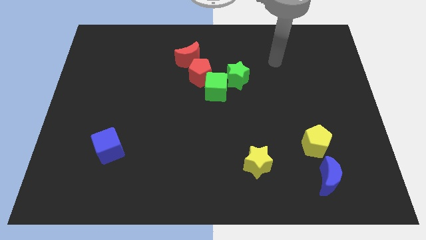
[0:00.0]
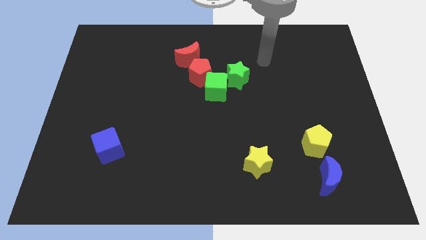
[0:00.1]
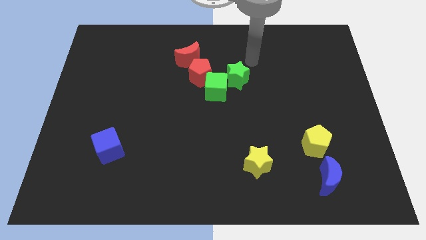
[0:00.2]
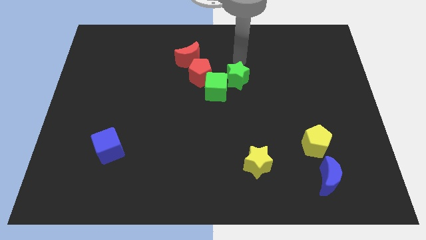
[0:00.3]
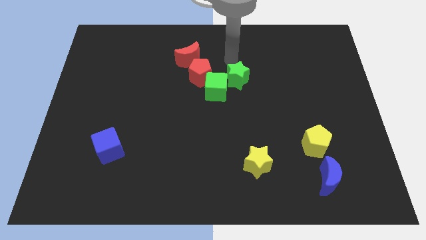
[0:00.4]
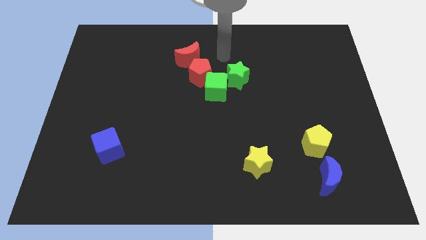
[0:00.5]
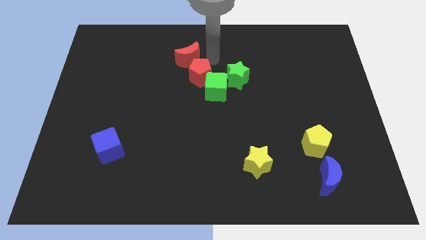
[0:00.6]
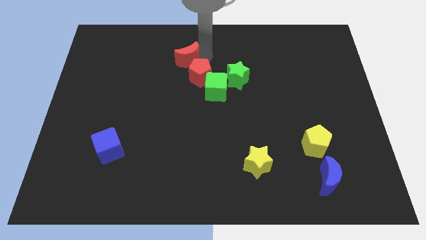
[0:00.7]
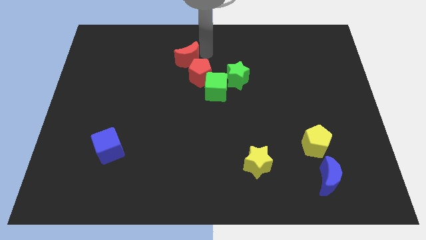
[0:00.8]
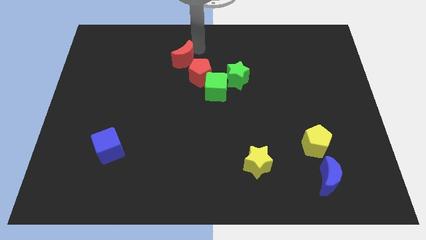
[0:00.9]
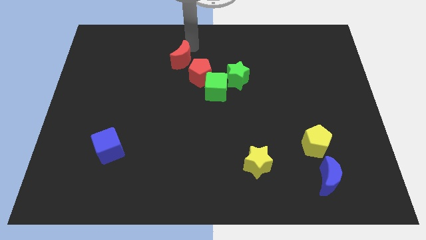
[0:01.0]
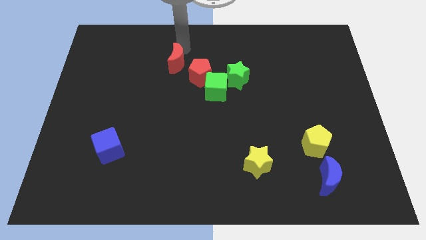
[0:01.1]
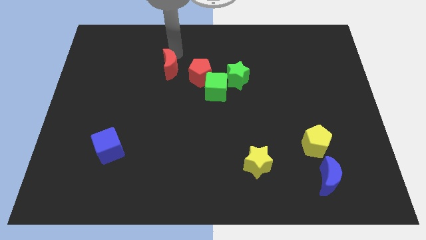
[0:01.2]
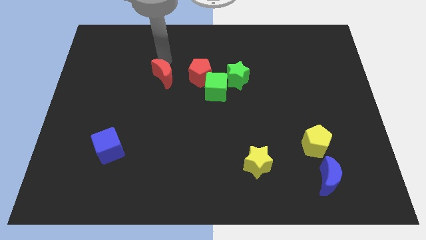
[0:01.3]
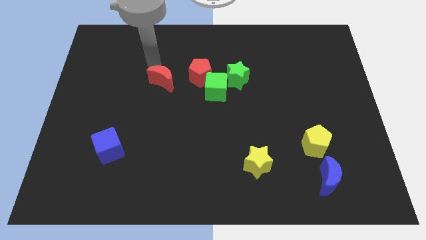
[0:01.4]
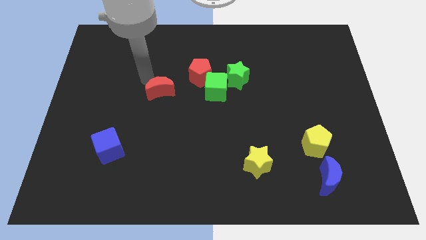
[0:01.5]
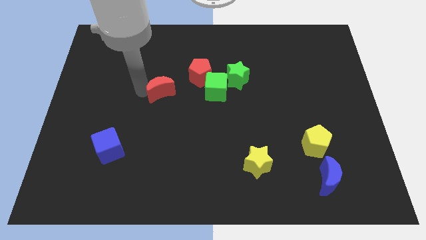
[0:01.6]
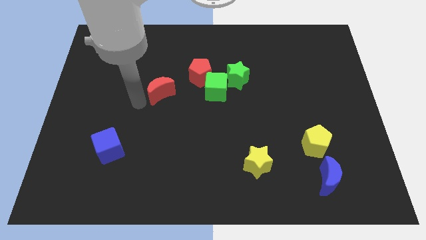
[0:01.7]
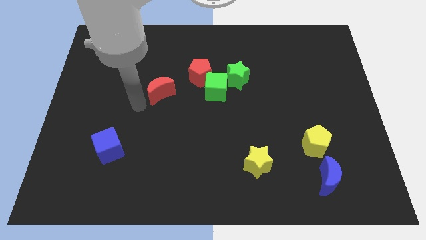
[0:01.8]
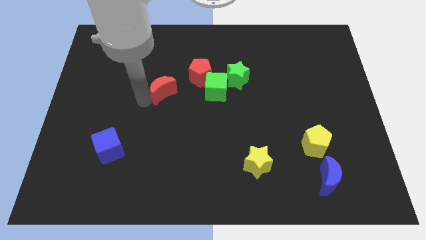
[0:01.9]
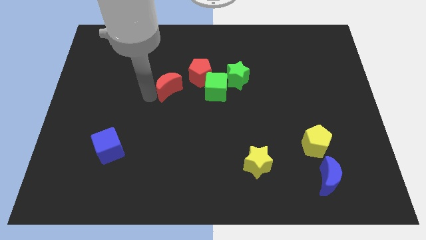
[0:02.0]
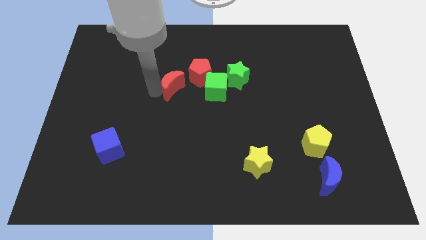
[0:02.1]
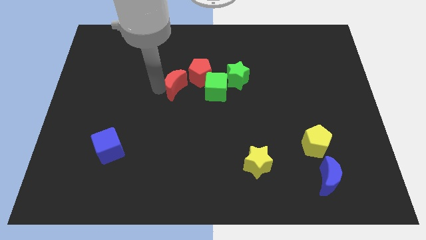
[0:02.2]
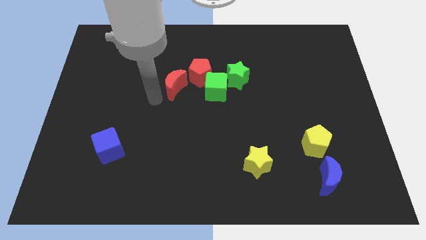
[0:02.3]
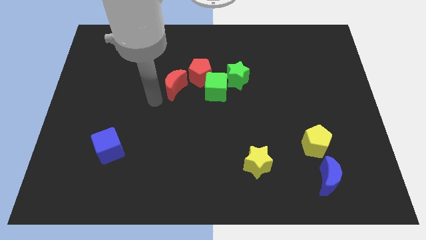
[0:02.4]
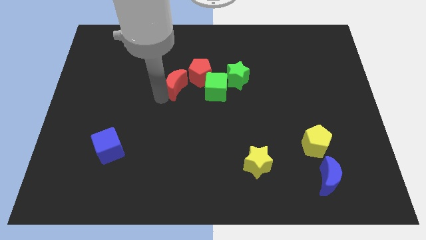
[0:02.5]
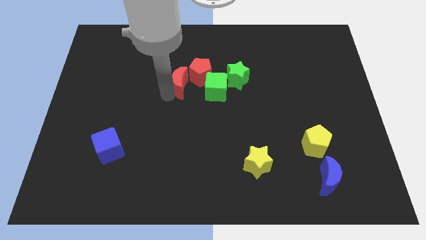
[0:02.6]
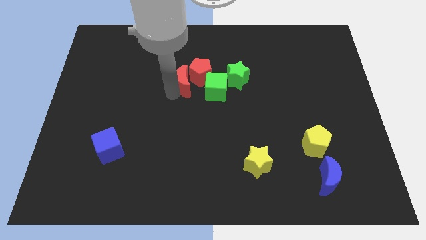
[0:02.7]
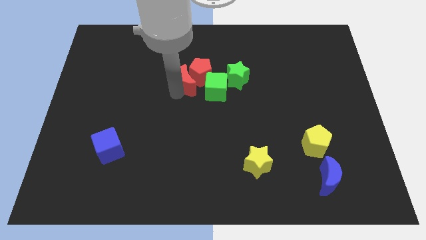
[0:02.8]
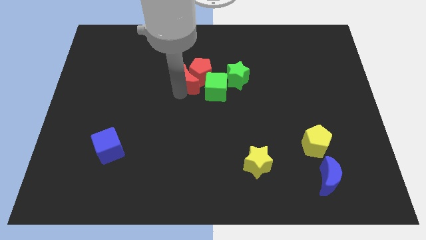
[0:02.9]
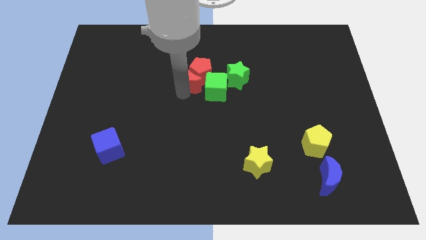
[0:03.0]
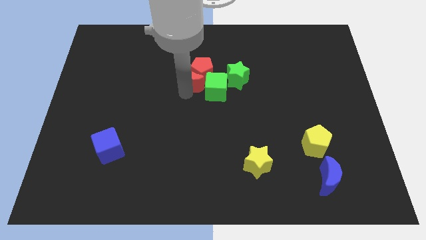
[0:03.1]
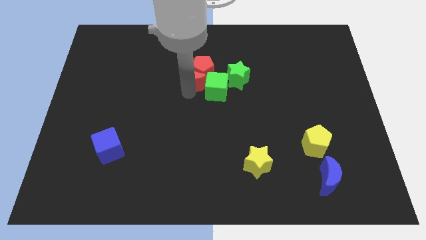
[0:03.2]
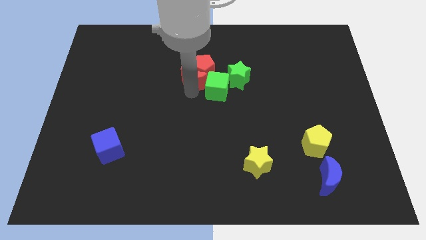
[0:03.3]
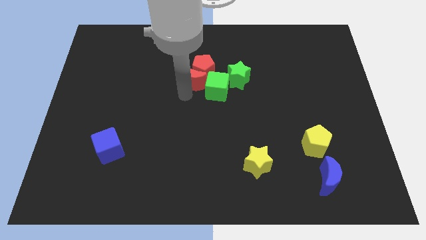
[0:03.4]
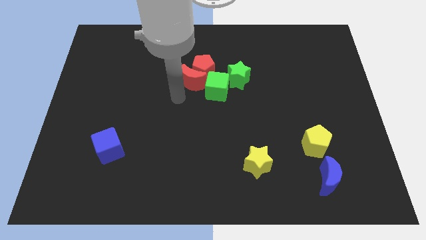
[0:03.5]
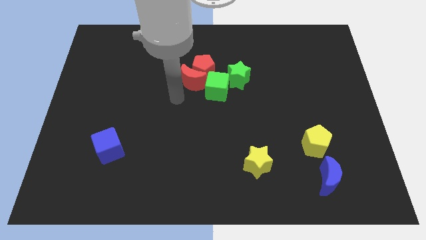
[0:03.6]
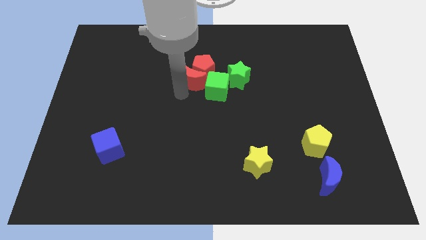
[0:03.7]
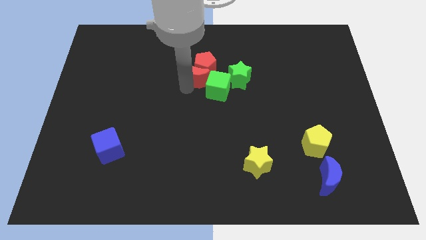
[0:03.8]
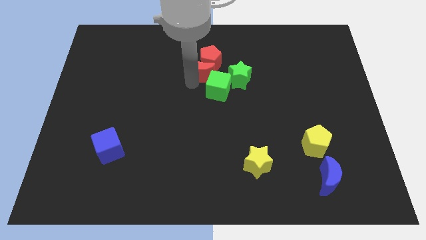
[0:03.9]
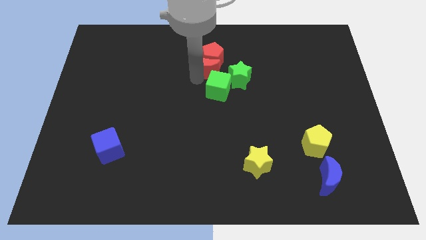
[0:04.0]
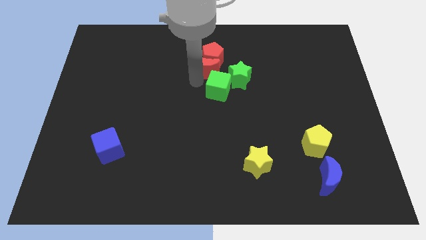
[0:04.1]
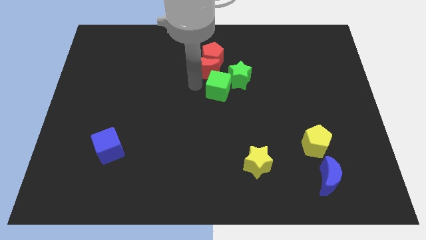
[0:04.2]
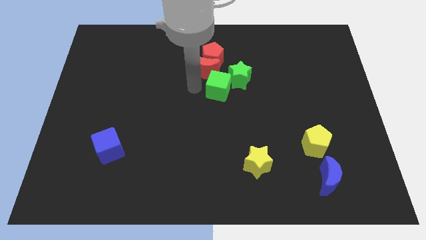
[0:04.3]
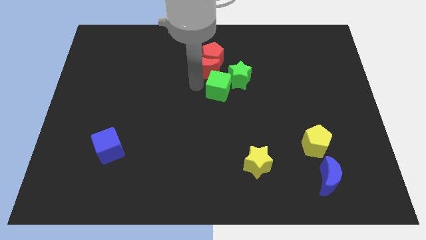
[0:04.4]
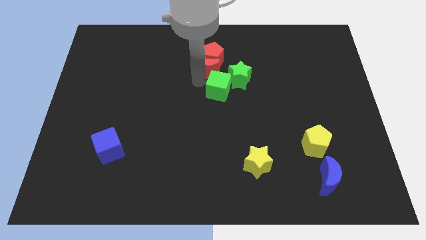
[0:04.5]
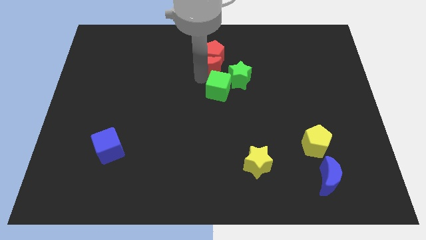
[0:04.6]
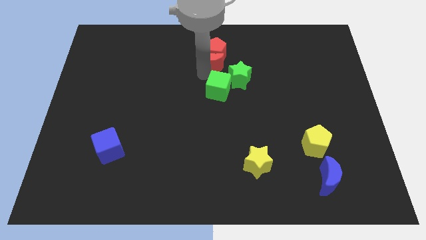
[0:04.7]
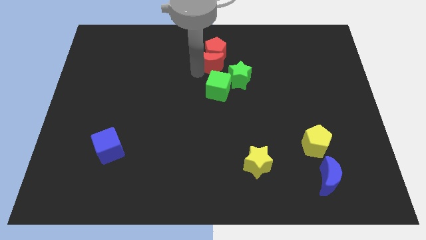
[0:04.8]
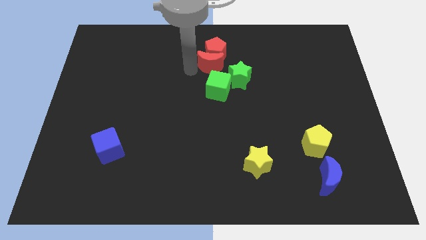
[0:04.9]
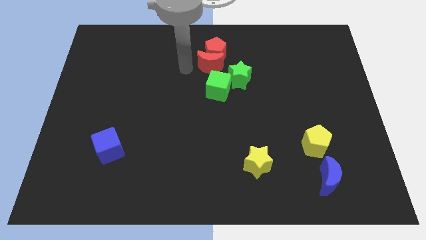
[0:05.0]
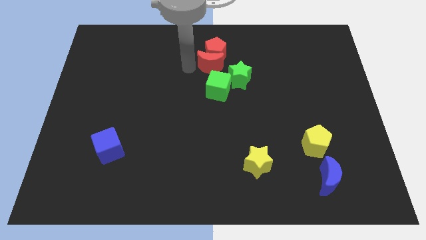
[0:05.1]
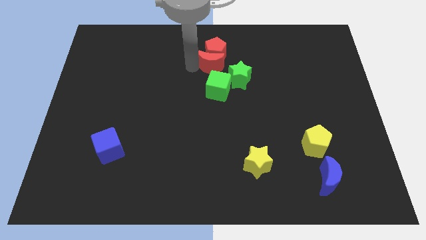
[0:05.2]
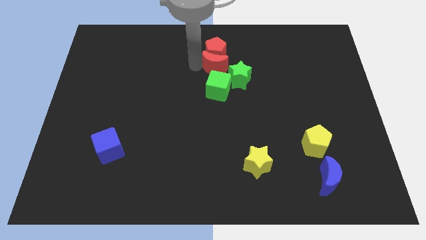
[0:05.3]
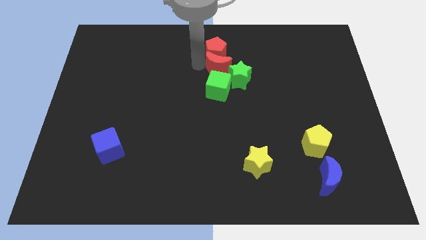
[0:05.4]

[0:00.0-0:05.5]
slightly move the red moon to the right

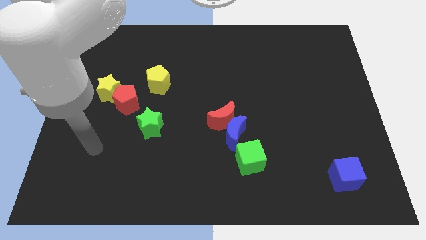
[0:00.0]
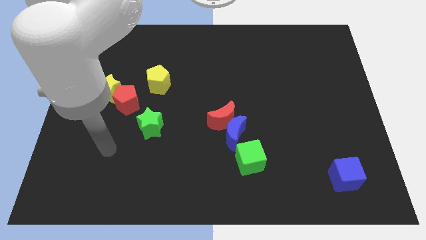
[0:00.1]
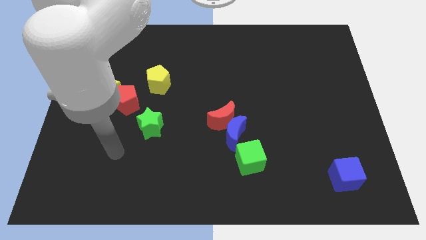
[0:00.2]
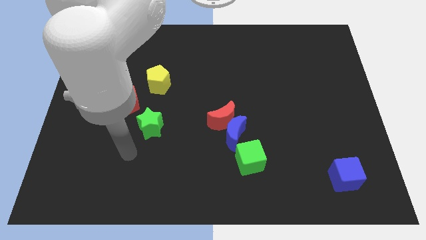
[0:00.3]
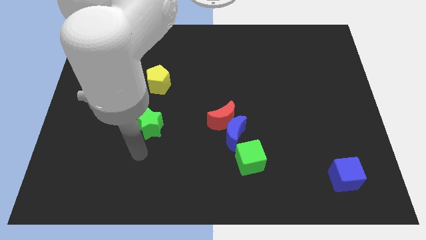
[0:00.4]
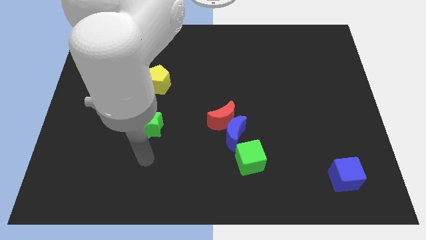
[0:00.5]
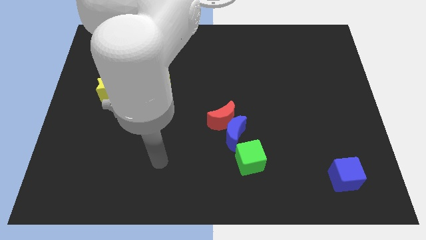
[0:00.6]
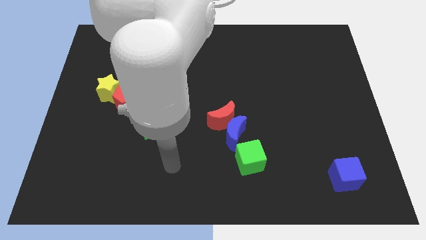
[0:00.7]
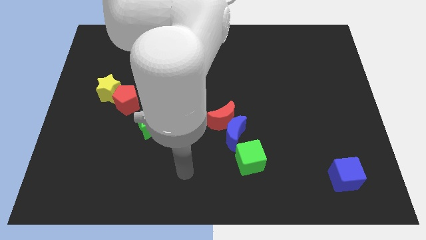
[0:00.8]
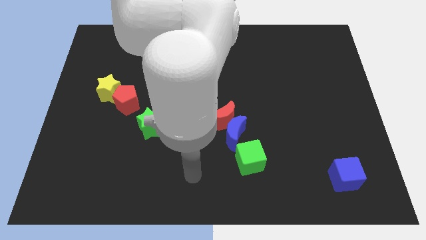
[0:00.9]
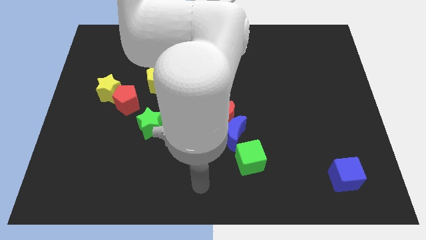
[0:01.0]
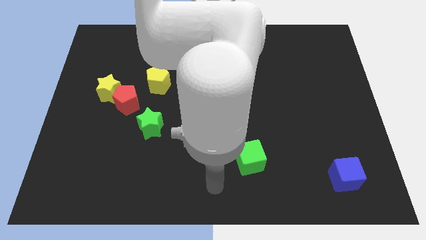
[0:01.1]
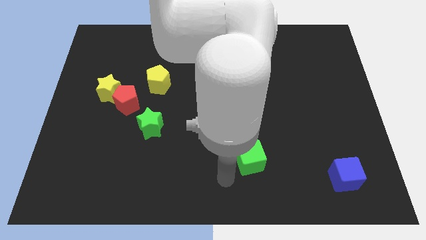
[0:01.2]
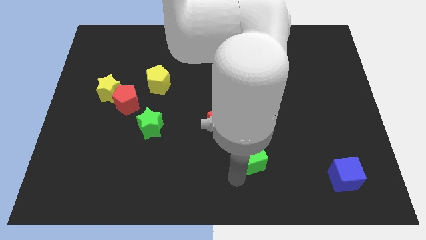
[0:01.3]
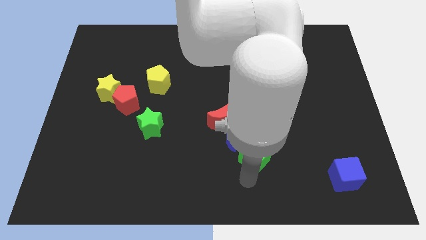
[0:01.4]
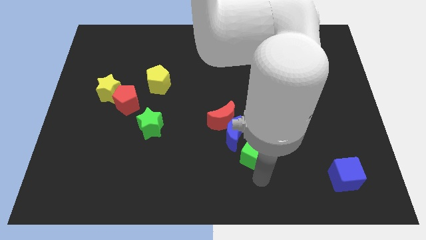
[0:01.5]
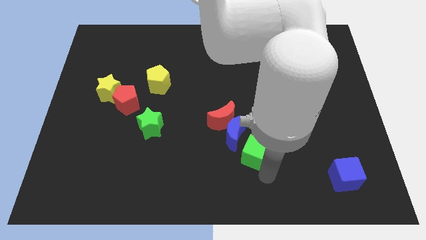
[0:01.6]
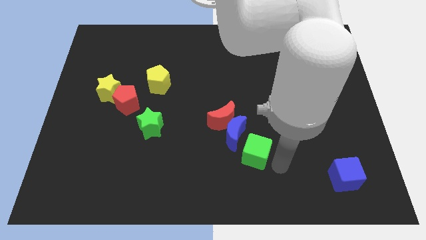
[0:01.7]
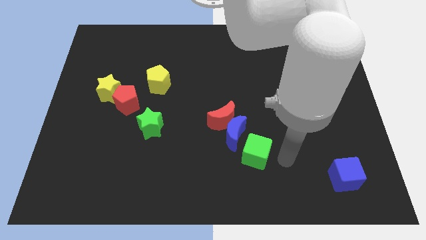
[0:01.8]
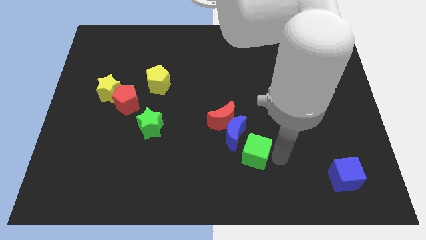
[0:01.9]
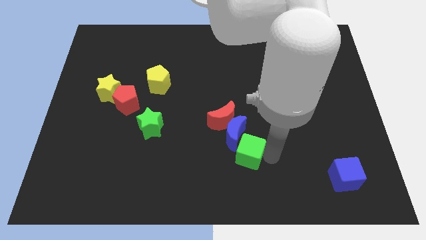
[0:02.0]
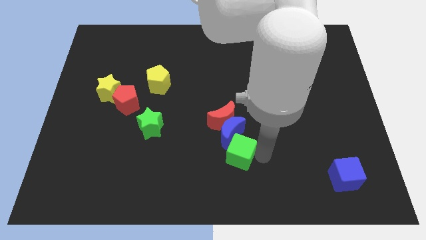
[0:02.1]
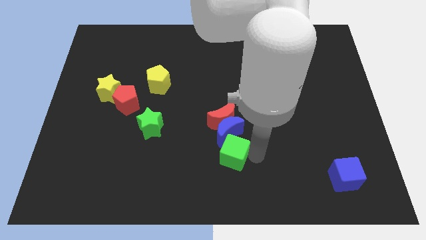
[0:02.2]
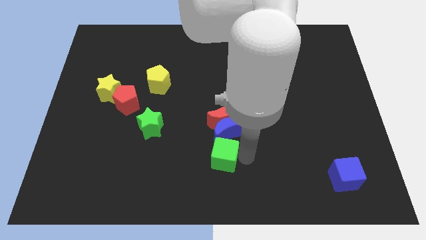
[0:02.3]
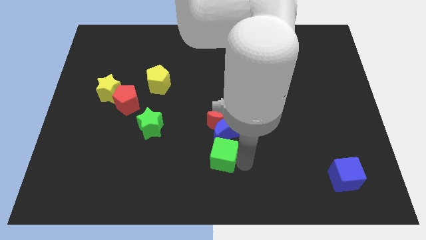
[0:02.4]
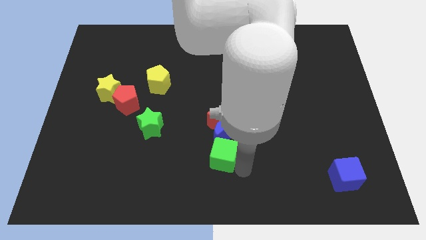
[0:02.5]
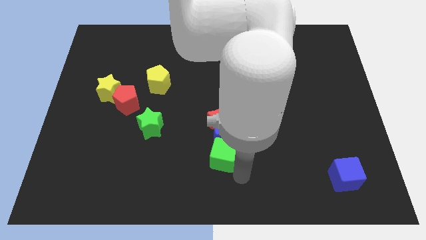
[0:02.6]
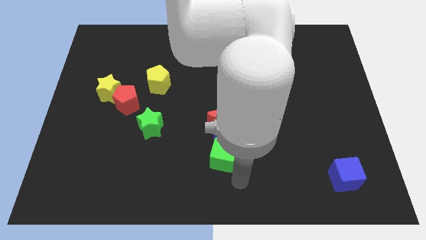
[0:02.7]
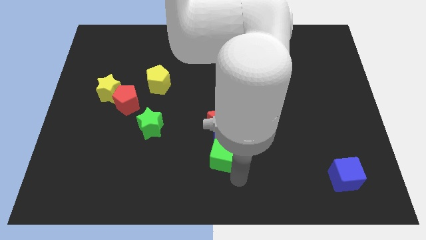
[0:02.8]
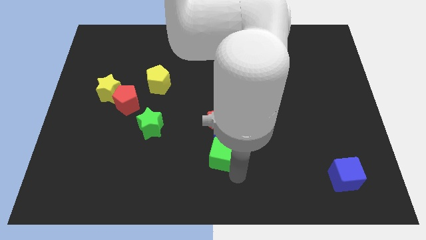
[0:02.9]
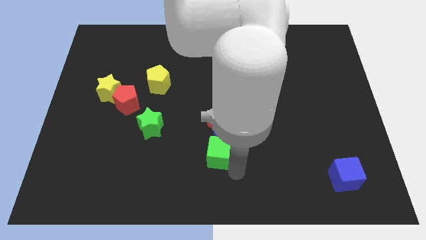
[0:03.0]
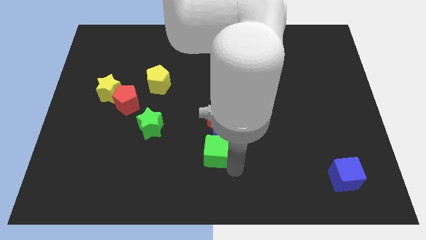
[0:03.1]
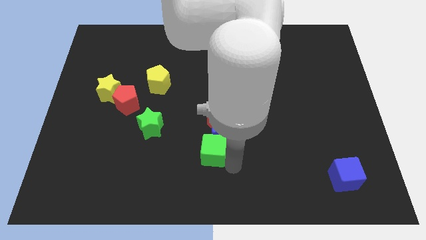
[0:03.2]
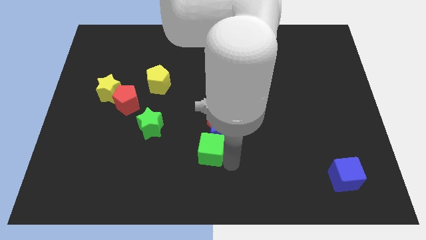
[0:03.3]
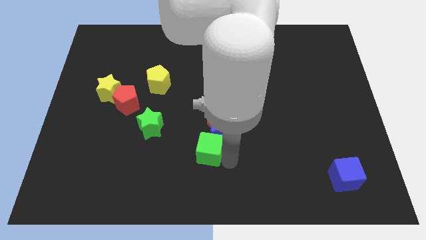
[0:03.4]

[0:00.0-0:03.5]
slightly move the green cube up and to the left diagonally
